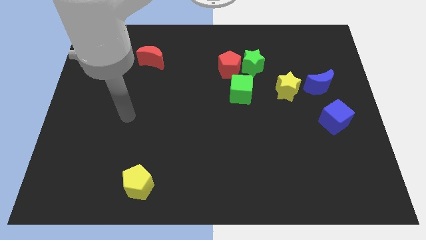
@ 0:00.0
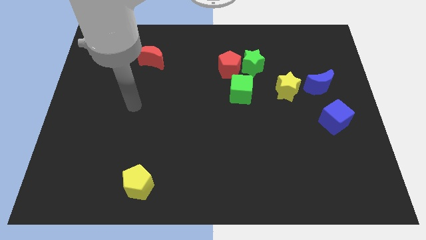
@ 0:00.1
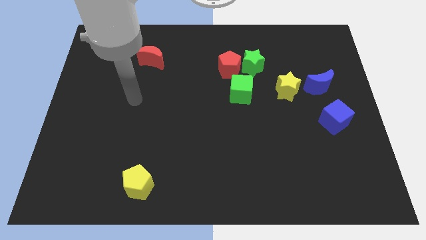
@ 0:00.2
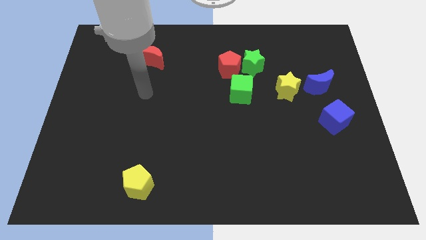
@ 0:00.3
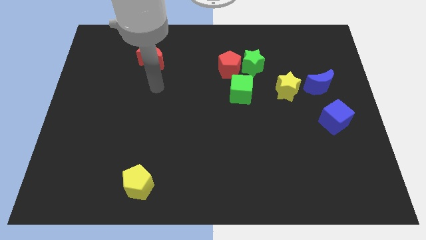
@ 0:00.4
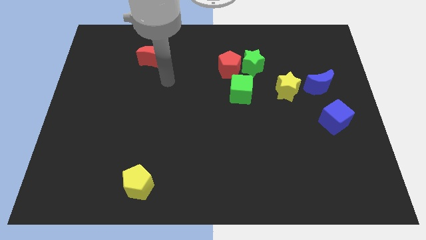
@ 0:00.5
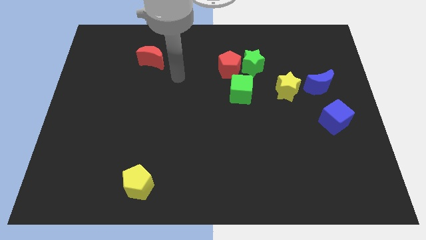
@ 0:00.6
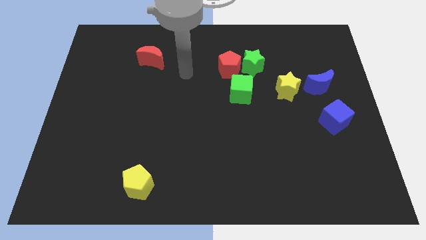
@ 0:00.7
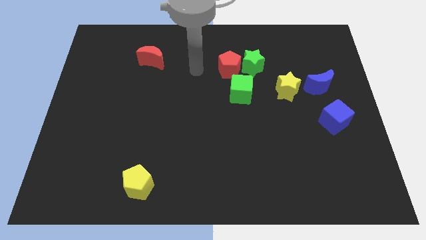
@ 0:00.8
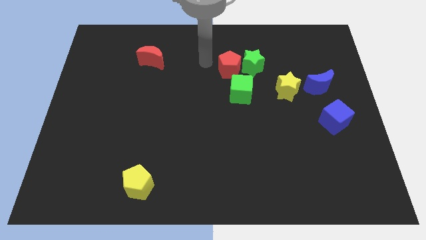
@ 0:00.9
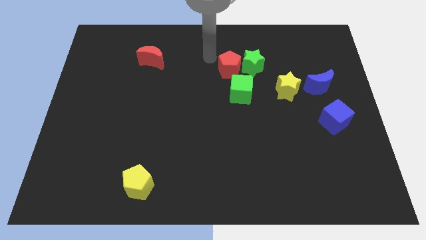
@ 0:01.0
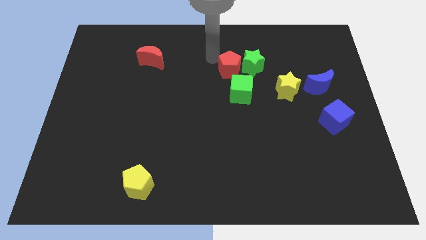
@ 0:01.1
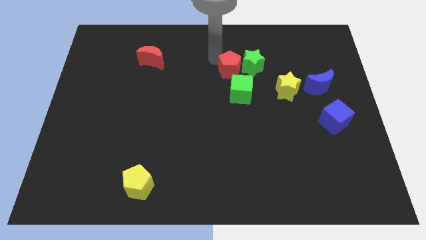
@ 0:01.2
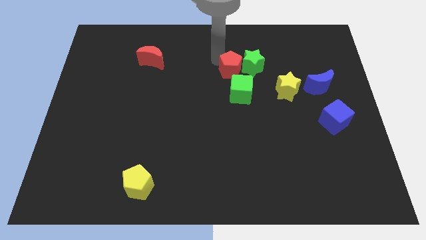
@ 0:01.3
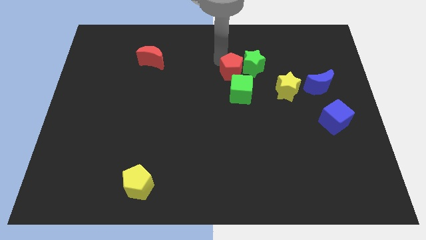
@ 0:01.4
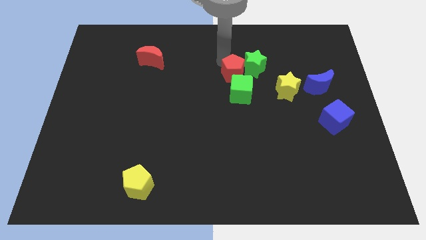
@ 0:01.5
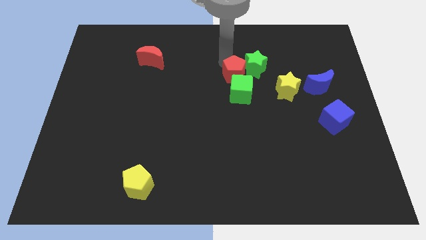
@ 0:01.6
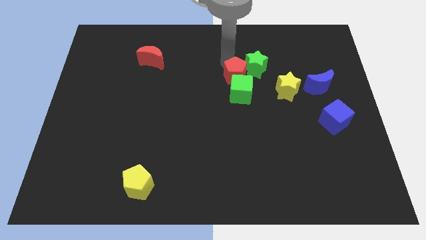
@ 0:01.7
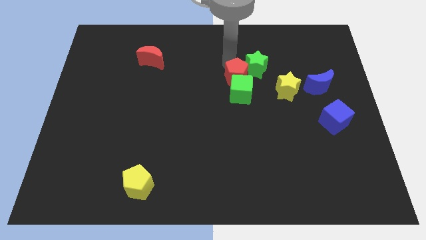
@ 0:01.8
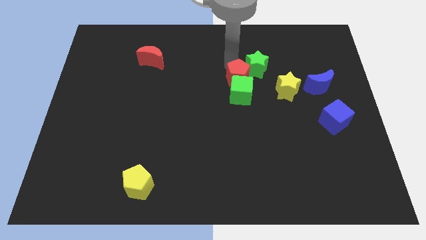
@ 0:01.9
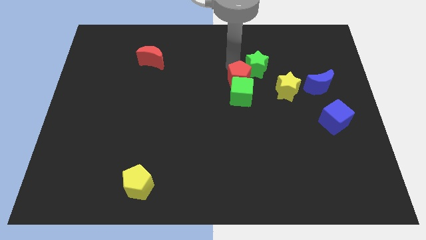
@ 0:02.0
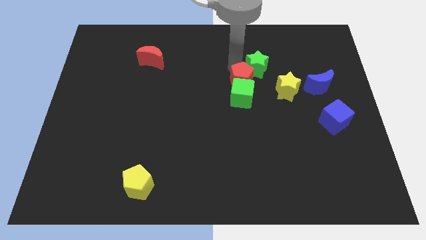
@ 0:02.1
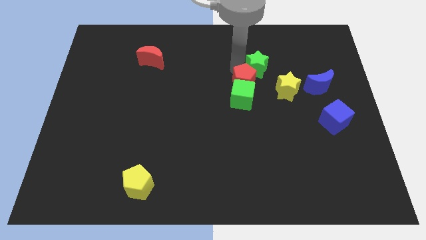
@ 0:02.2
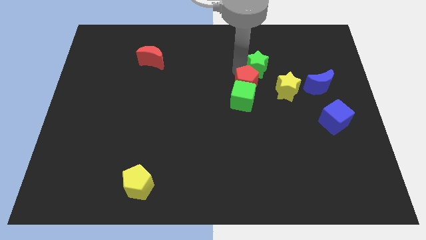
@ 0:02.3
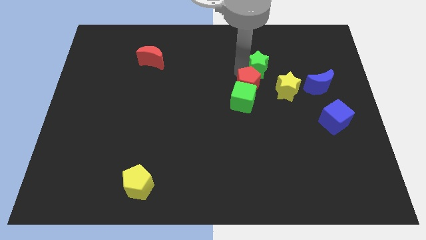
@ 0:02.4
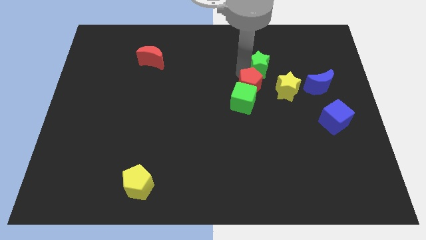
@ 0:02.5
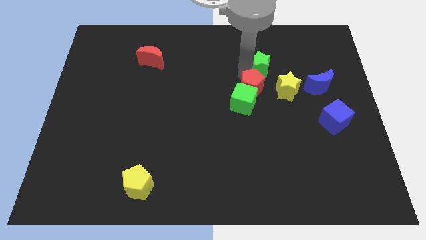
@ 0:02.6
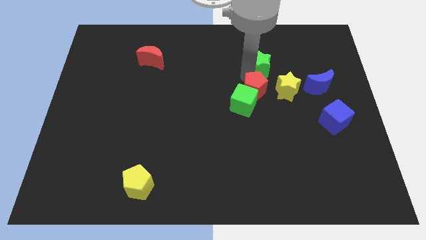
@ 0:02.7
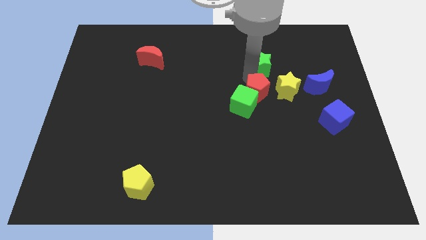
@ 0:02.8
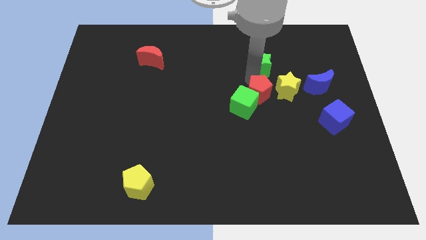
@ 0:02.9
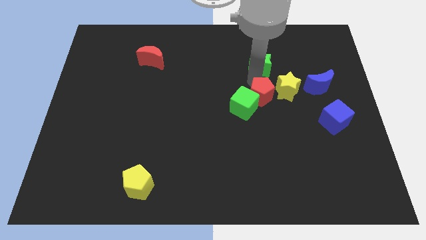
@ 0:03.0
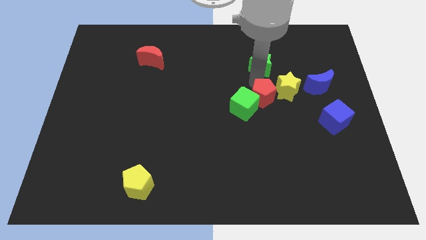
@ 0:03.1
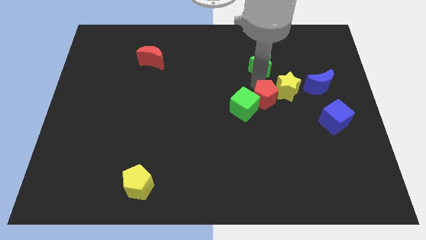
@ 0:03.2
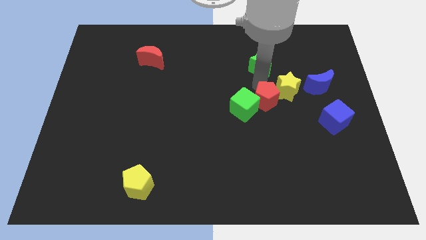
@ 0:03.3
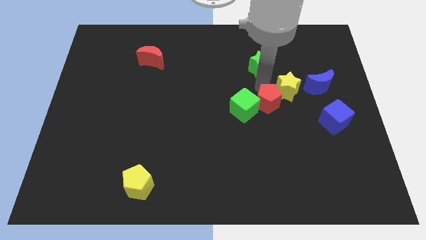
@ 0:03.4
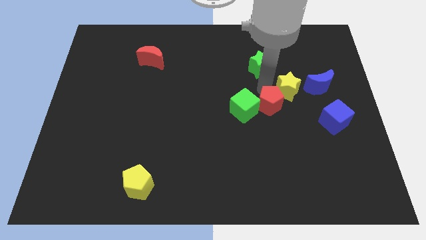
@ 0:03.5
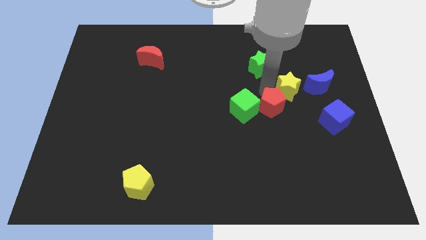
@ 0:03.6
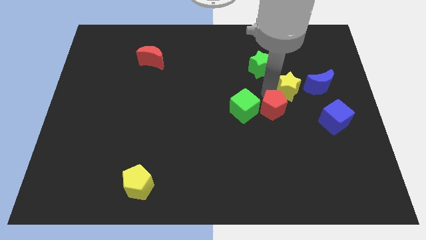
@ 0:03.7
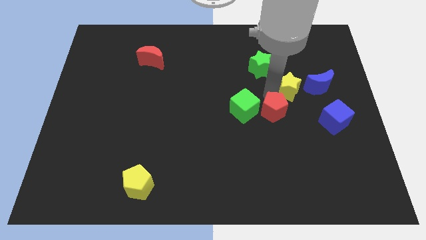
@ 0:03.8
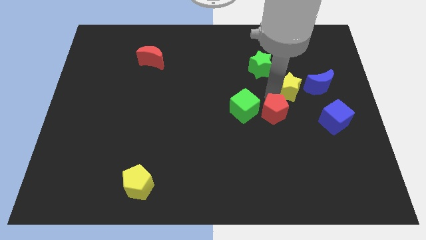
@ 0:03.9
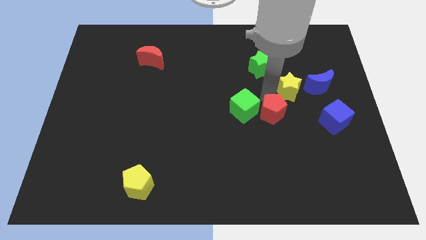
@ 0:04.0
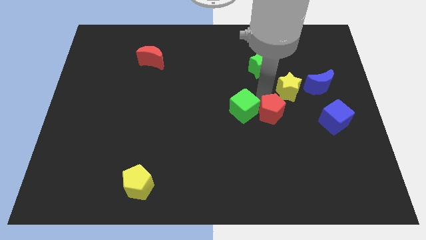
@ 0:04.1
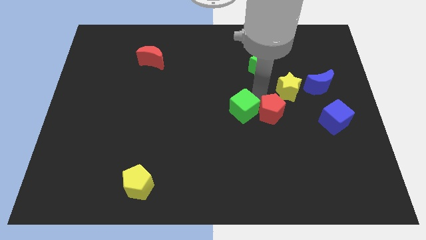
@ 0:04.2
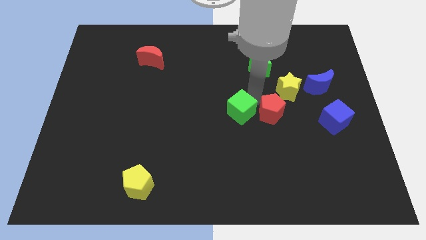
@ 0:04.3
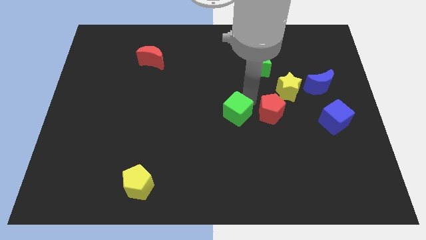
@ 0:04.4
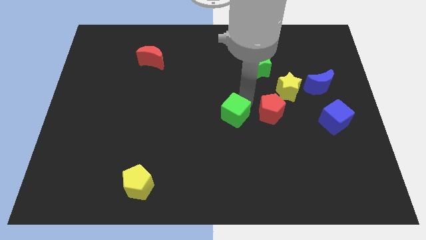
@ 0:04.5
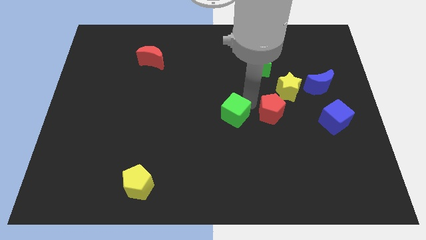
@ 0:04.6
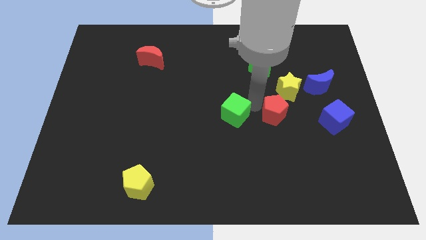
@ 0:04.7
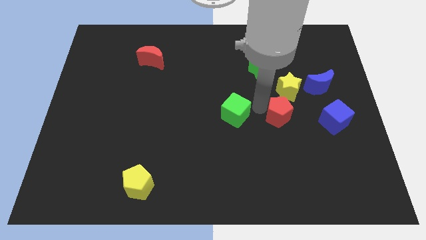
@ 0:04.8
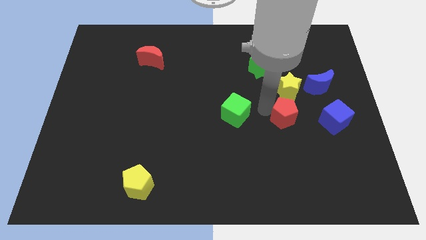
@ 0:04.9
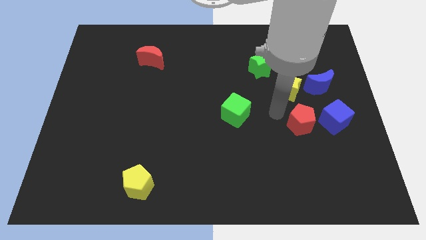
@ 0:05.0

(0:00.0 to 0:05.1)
push the red pentagon downwards and then right

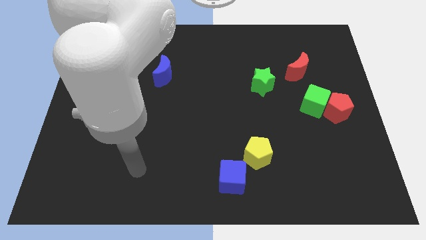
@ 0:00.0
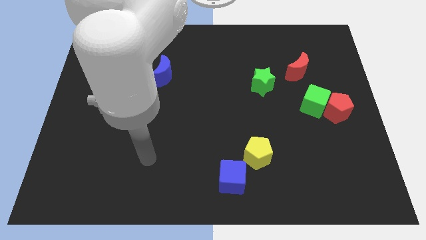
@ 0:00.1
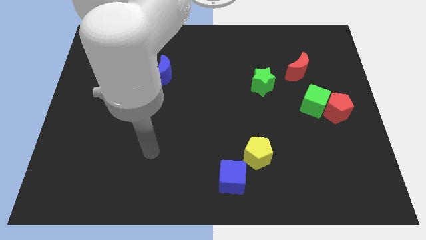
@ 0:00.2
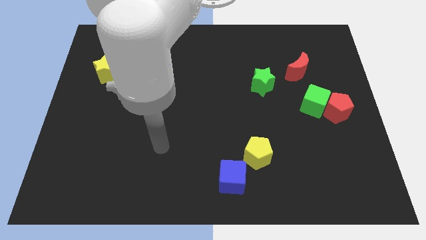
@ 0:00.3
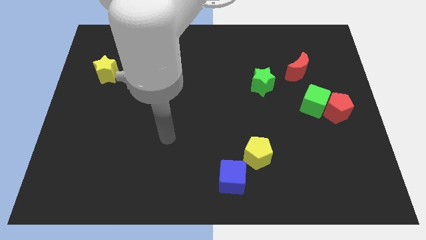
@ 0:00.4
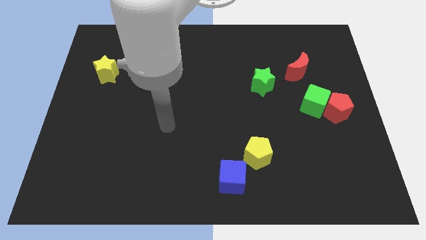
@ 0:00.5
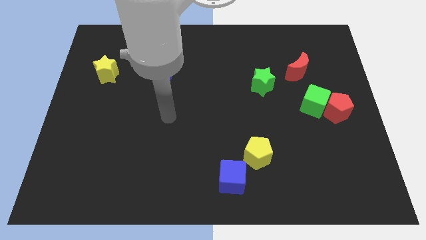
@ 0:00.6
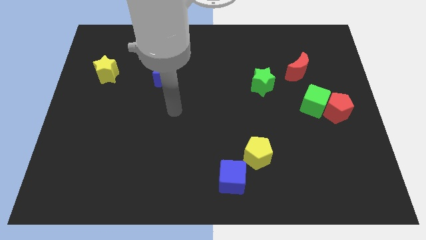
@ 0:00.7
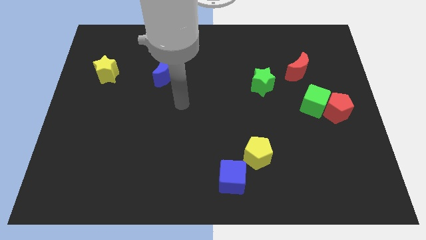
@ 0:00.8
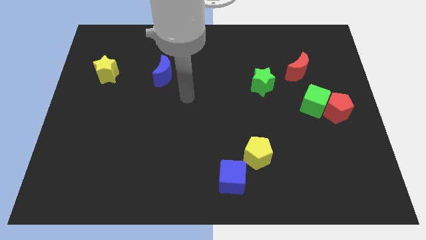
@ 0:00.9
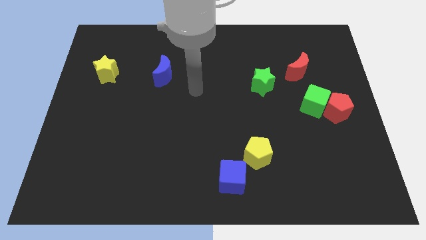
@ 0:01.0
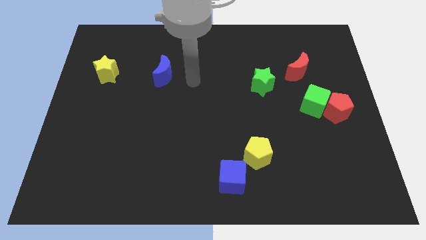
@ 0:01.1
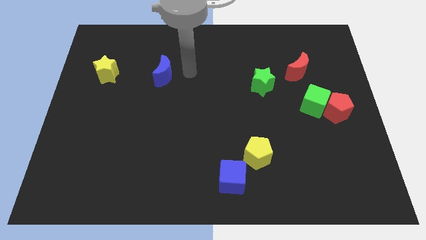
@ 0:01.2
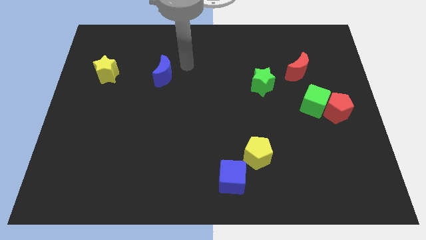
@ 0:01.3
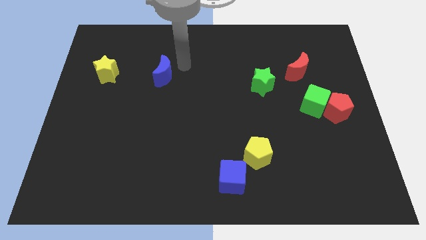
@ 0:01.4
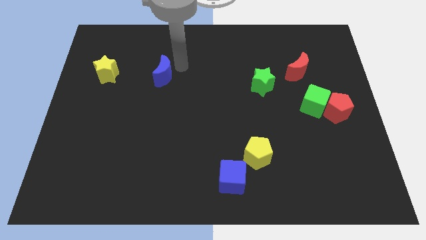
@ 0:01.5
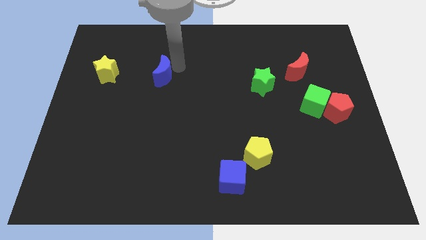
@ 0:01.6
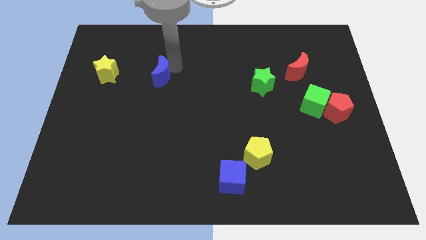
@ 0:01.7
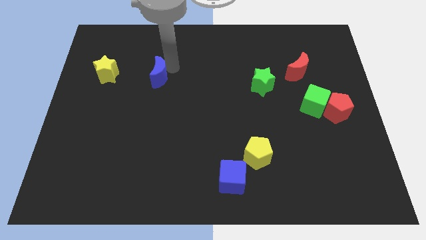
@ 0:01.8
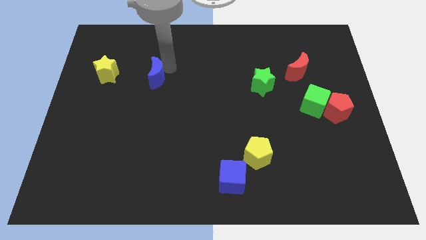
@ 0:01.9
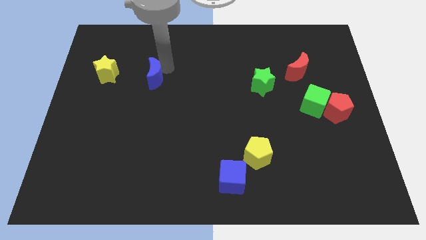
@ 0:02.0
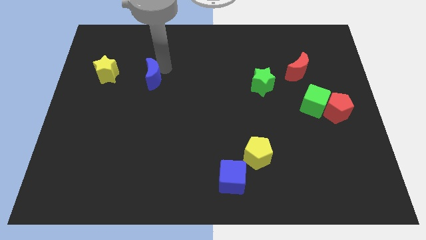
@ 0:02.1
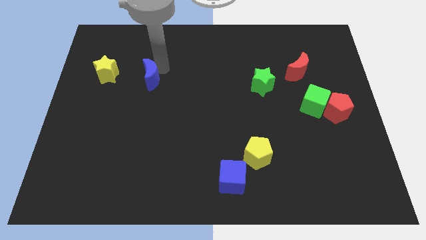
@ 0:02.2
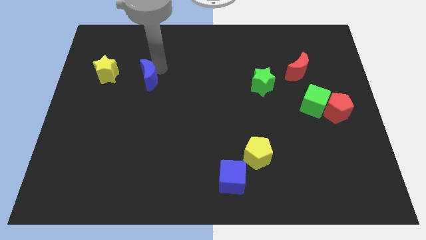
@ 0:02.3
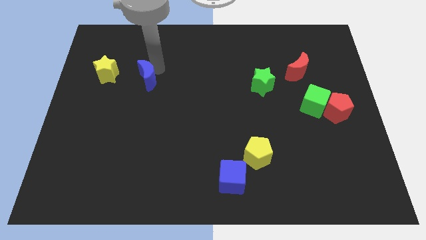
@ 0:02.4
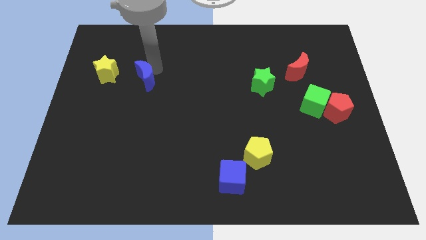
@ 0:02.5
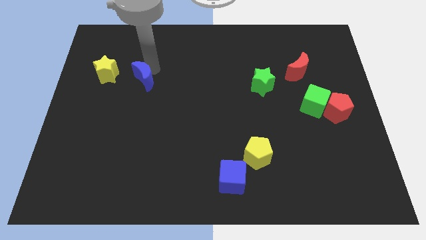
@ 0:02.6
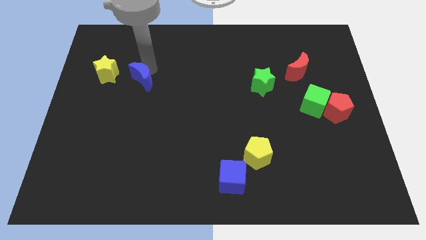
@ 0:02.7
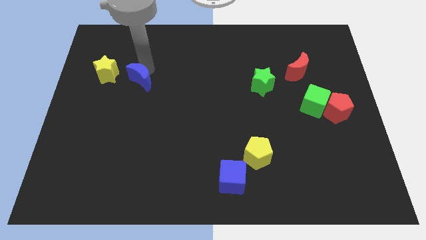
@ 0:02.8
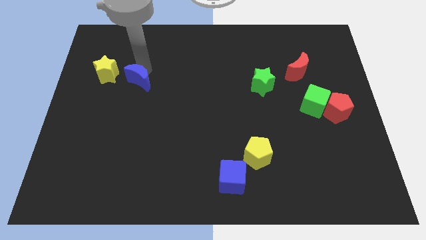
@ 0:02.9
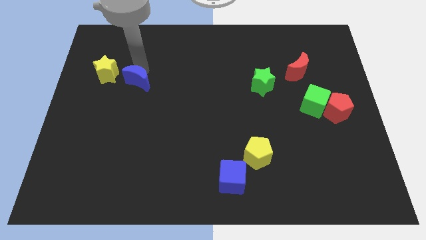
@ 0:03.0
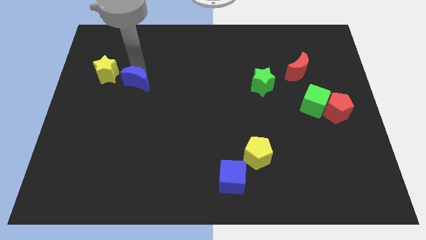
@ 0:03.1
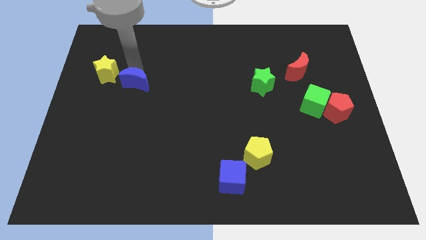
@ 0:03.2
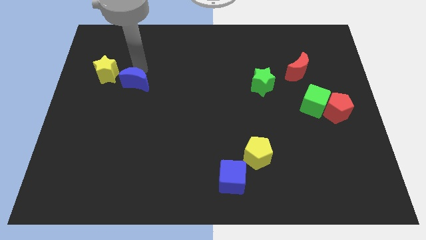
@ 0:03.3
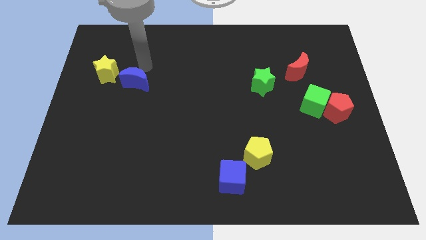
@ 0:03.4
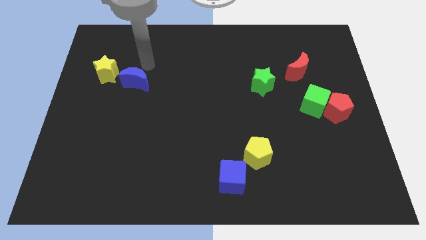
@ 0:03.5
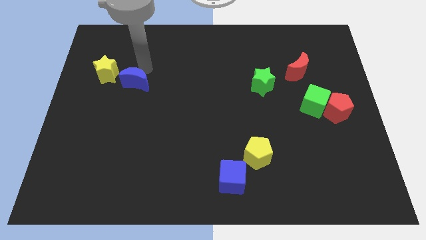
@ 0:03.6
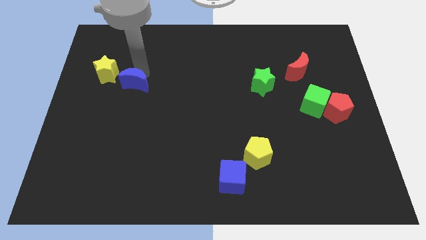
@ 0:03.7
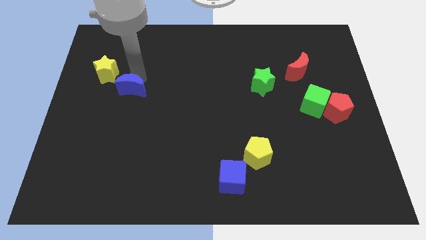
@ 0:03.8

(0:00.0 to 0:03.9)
slide the blue moon diagonally downwards and left somewhat
